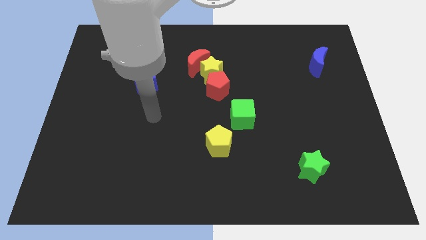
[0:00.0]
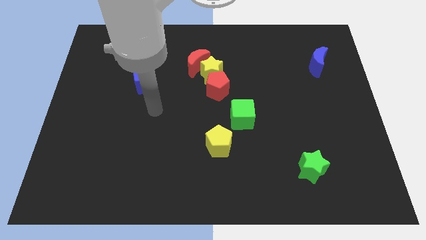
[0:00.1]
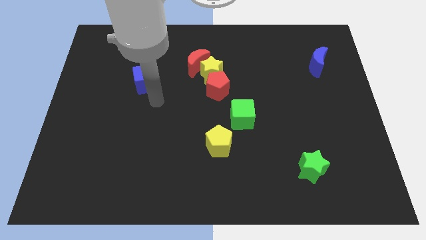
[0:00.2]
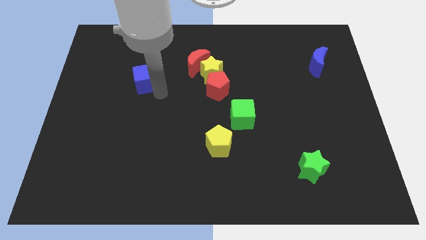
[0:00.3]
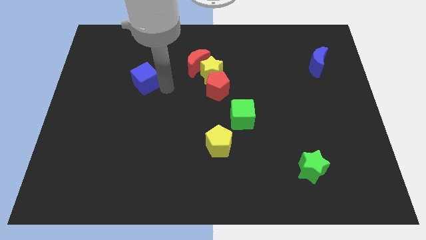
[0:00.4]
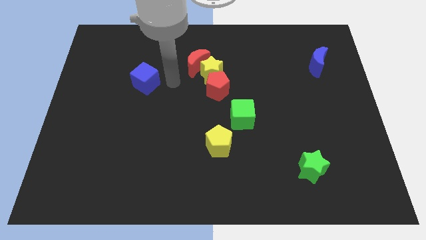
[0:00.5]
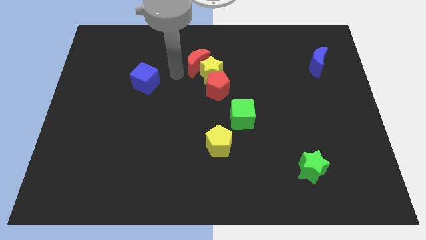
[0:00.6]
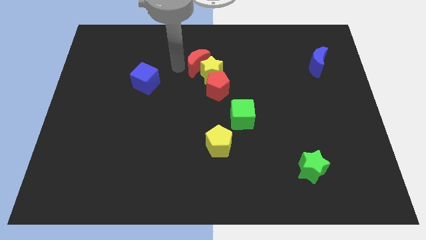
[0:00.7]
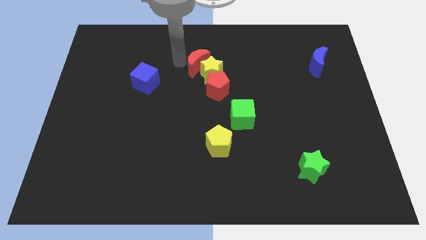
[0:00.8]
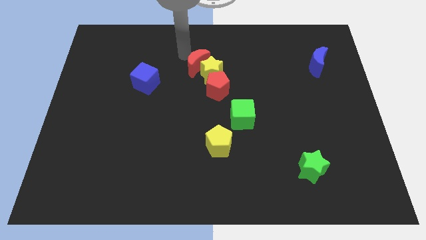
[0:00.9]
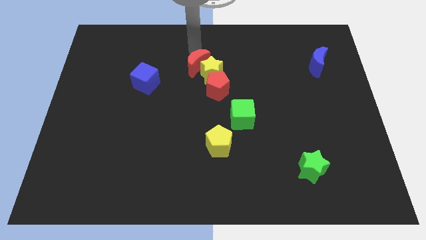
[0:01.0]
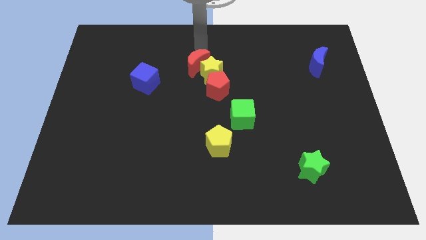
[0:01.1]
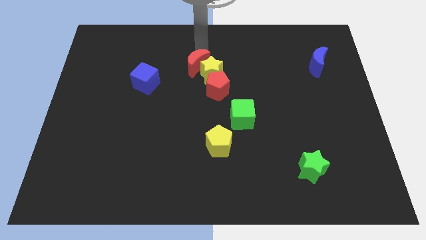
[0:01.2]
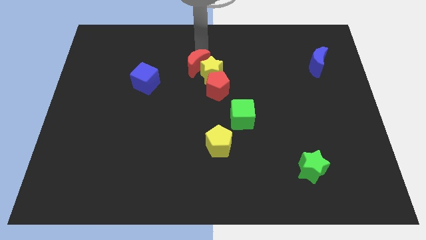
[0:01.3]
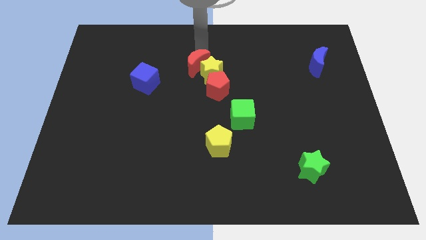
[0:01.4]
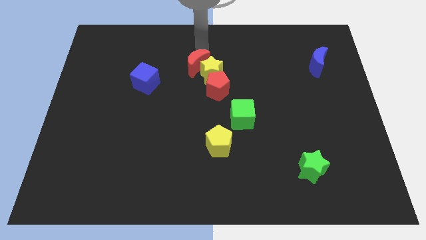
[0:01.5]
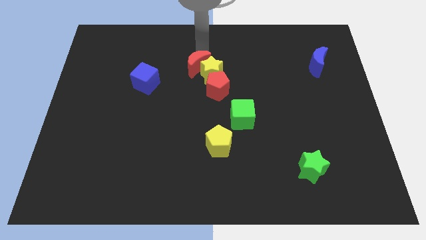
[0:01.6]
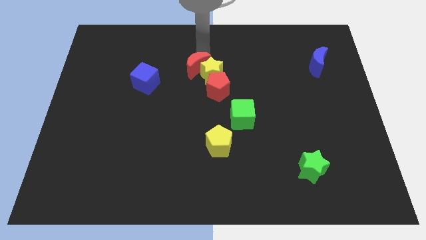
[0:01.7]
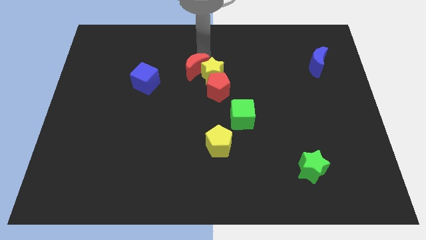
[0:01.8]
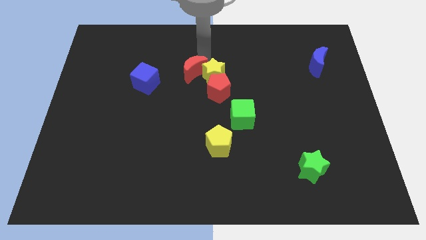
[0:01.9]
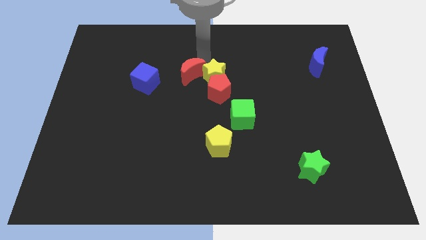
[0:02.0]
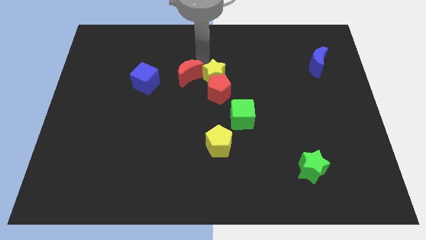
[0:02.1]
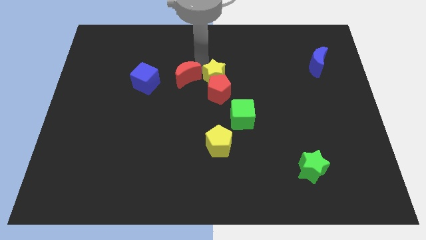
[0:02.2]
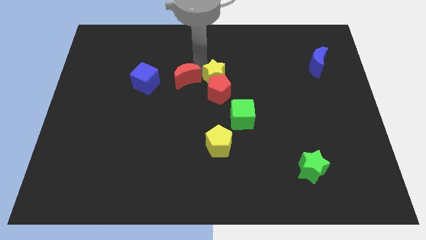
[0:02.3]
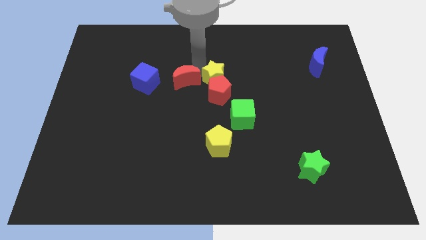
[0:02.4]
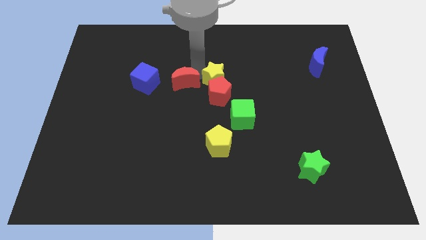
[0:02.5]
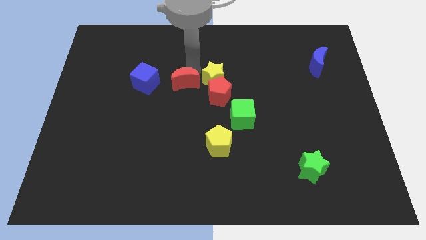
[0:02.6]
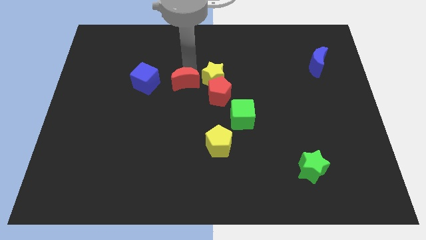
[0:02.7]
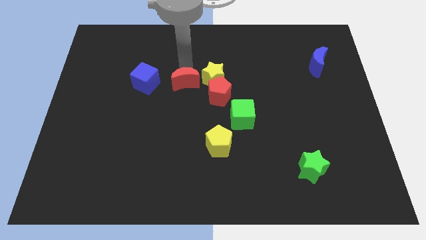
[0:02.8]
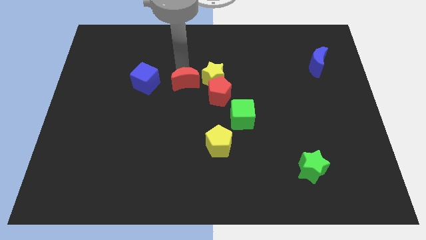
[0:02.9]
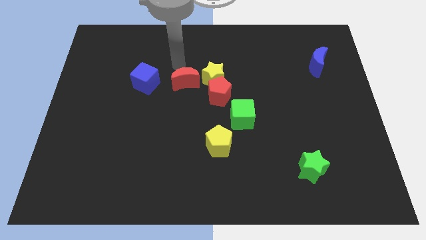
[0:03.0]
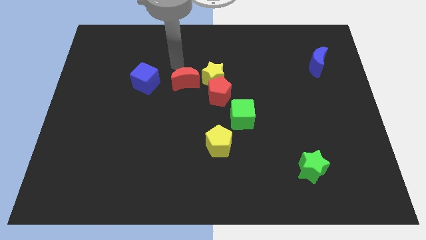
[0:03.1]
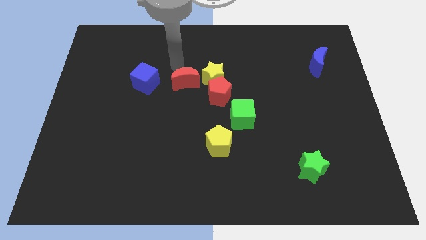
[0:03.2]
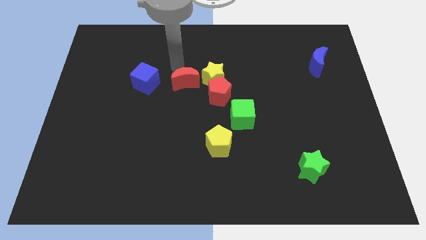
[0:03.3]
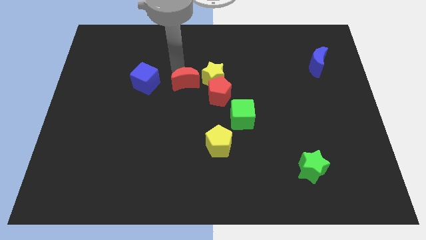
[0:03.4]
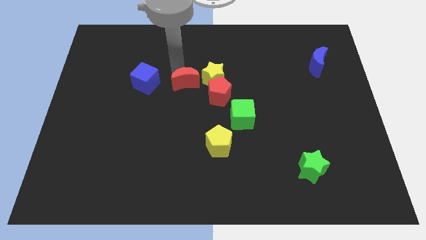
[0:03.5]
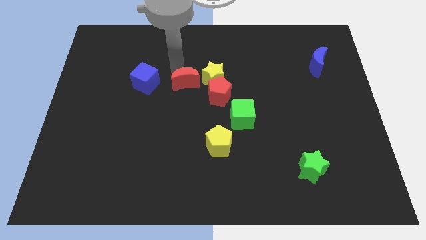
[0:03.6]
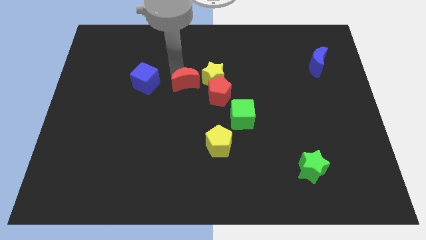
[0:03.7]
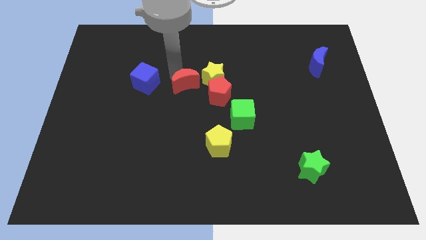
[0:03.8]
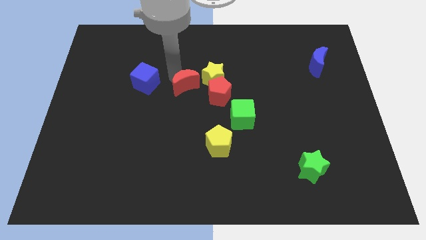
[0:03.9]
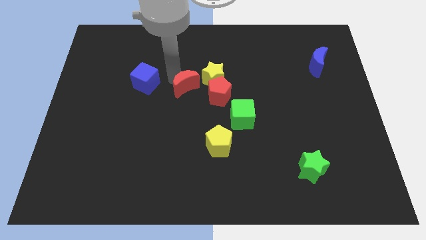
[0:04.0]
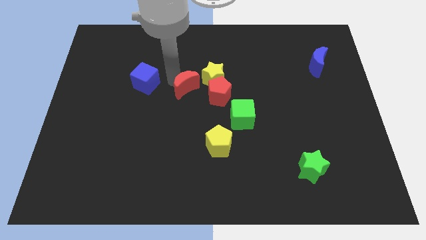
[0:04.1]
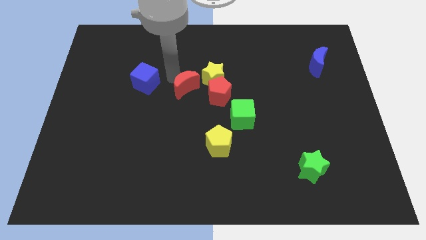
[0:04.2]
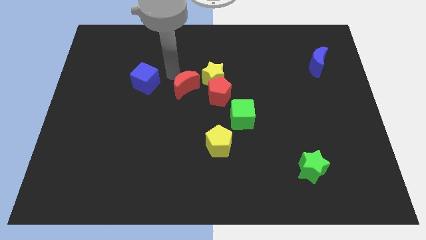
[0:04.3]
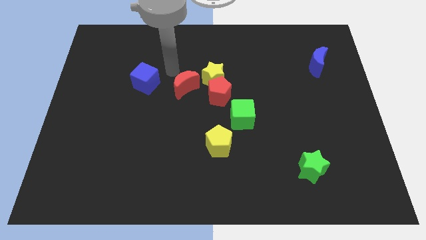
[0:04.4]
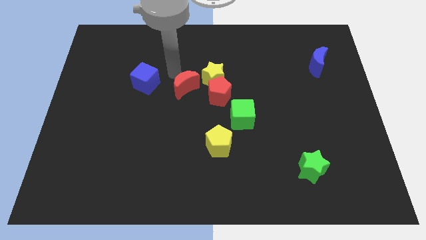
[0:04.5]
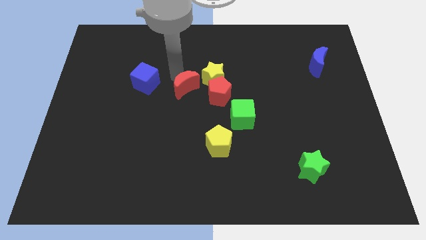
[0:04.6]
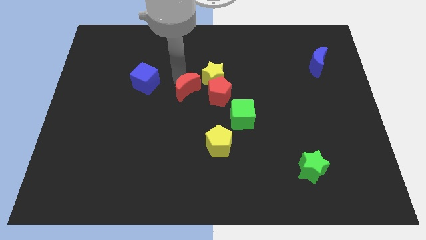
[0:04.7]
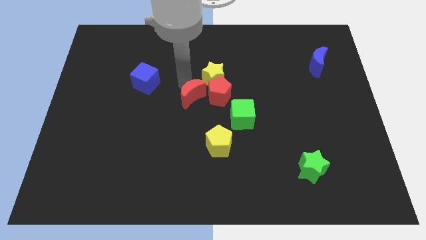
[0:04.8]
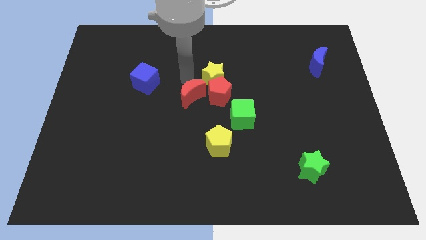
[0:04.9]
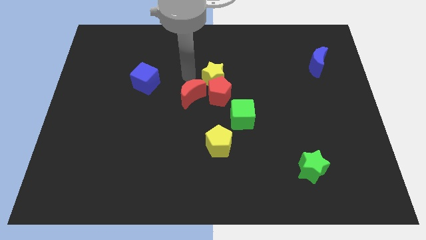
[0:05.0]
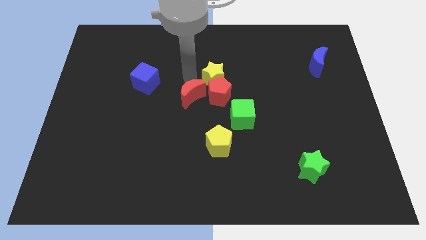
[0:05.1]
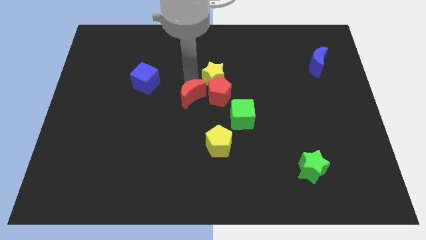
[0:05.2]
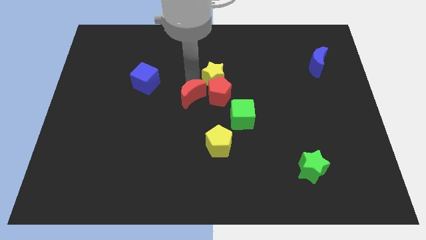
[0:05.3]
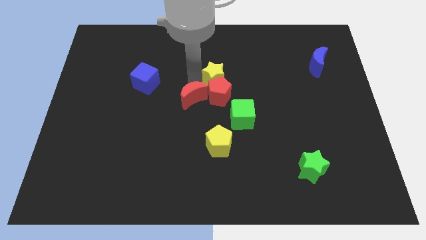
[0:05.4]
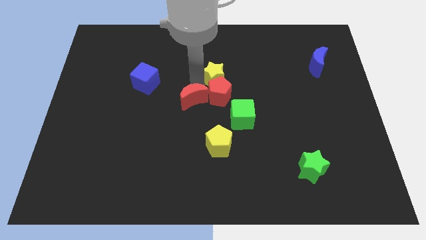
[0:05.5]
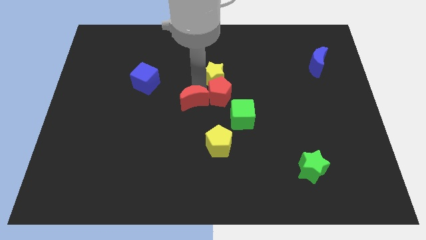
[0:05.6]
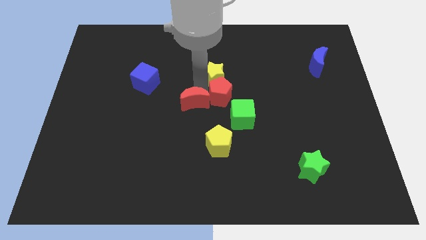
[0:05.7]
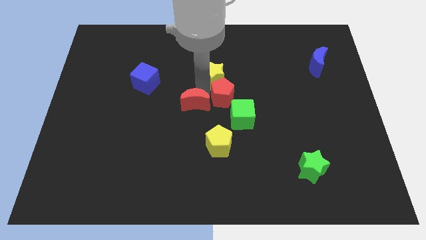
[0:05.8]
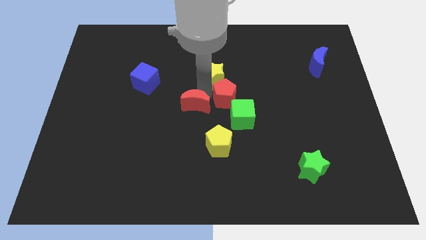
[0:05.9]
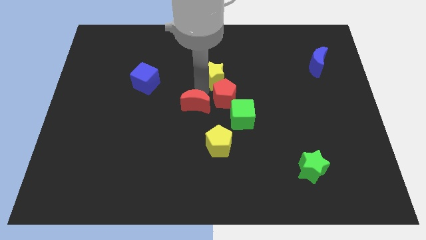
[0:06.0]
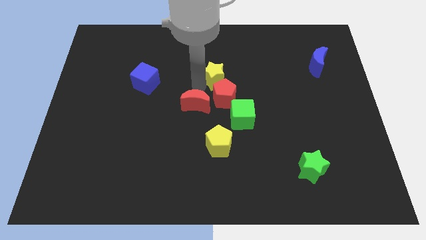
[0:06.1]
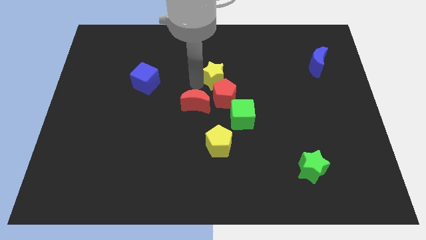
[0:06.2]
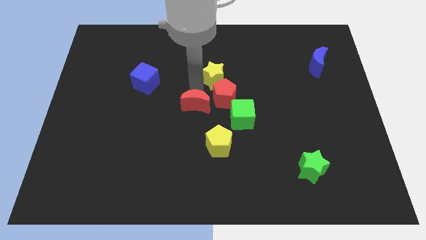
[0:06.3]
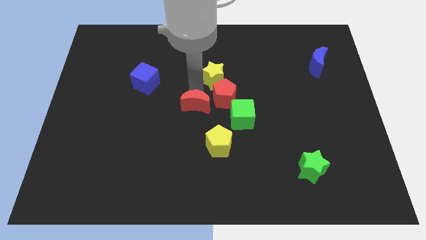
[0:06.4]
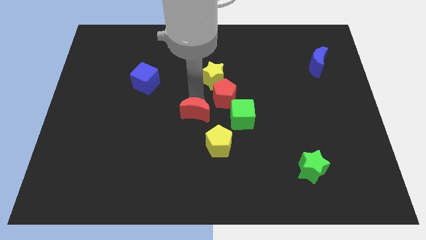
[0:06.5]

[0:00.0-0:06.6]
push the red moon diagonally up and to the left of the yellow pentagon

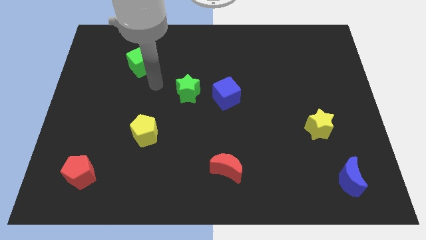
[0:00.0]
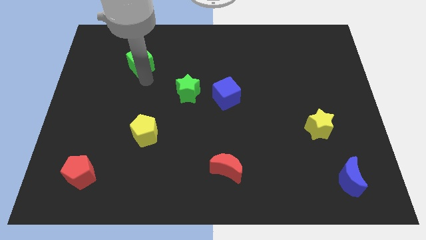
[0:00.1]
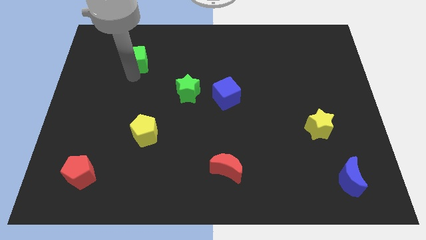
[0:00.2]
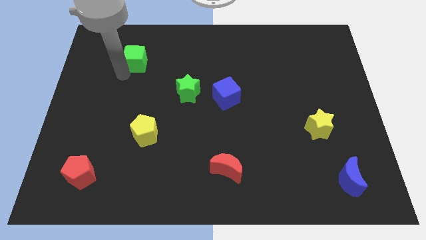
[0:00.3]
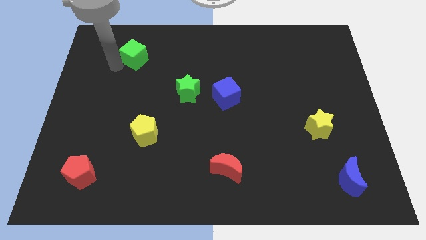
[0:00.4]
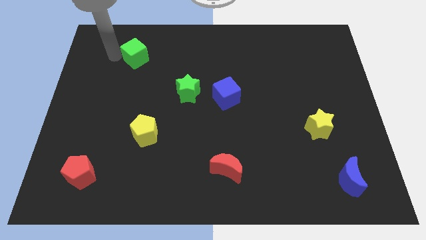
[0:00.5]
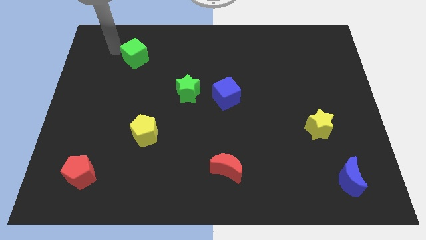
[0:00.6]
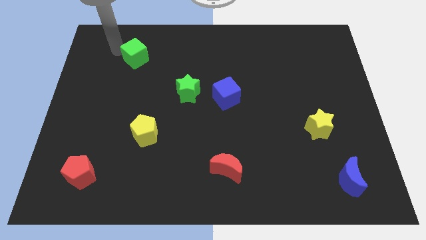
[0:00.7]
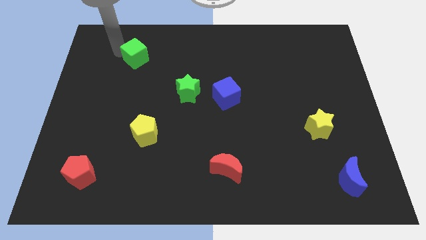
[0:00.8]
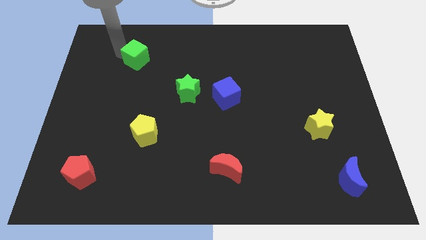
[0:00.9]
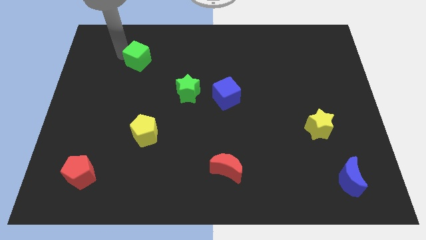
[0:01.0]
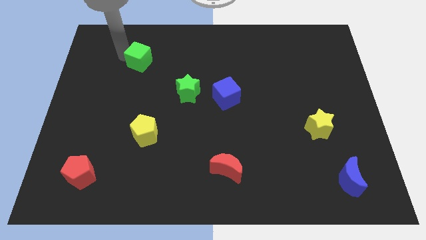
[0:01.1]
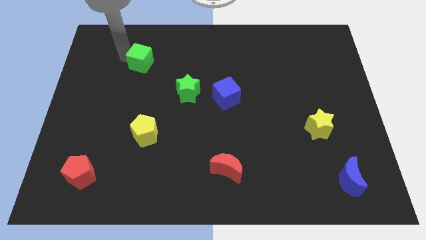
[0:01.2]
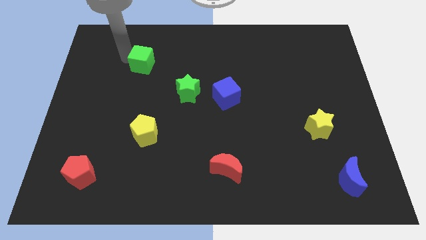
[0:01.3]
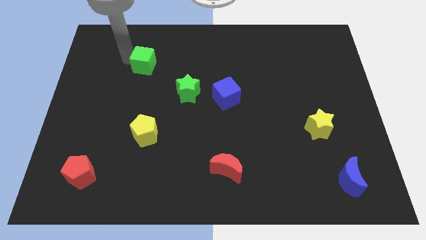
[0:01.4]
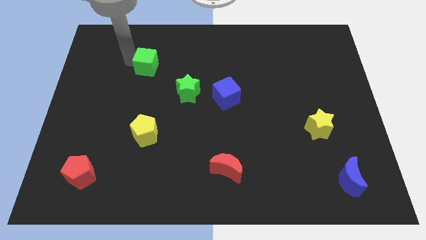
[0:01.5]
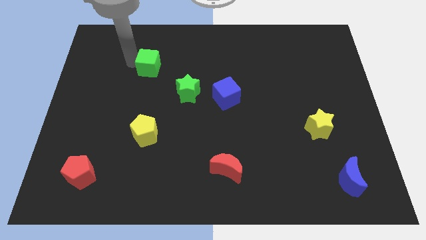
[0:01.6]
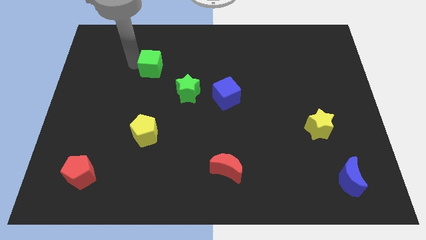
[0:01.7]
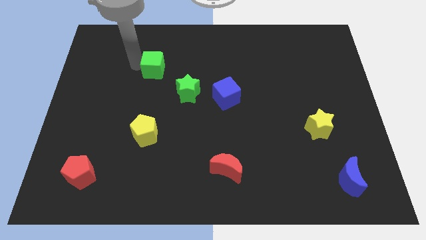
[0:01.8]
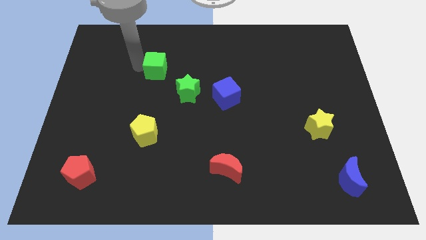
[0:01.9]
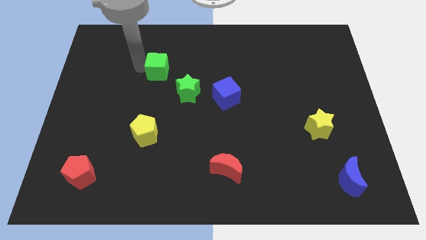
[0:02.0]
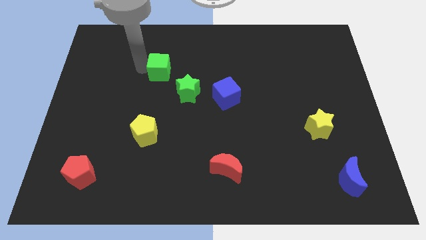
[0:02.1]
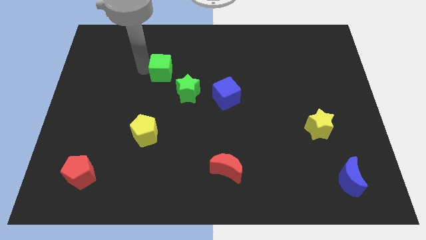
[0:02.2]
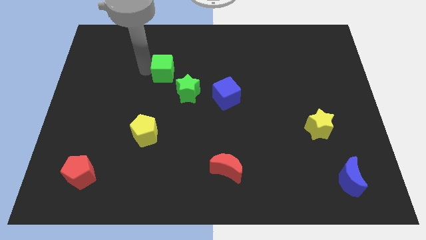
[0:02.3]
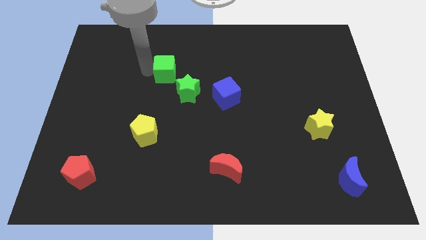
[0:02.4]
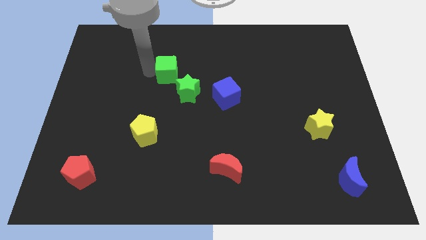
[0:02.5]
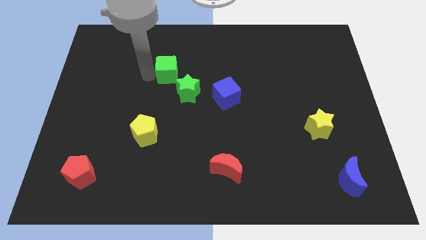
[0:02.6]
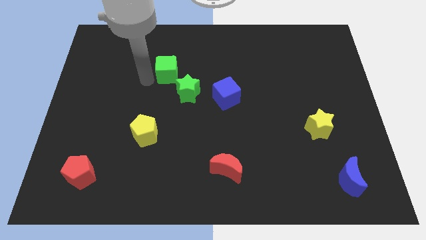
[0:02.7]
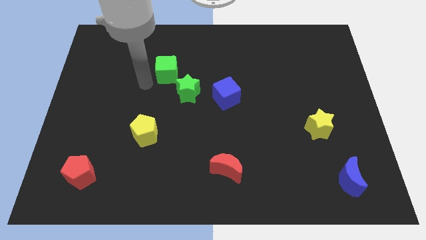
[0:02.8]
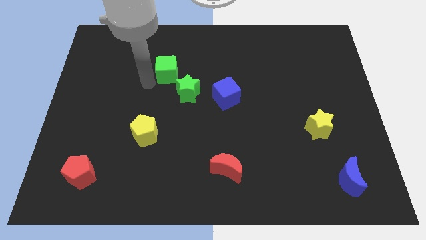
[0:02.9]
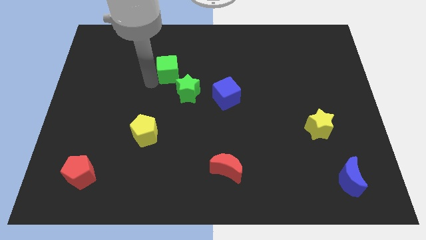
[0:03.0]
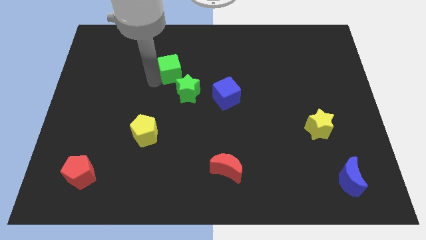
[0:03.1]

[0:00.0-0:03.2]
slide the green cube above the green star
